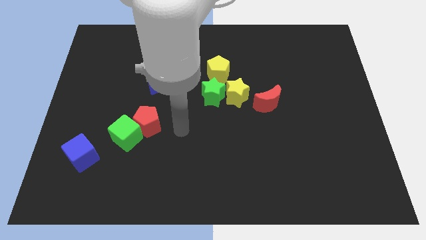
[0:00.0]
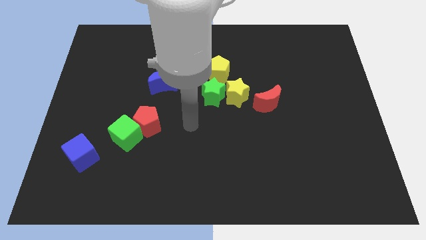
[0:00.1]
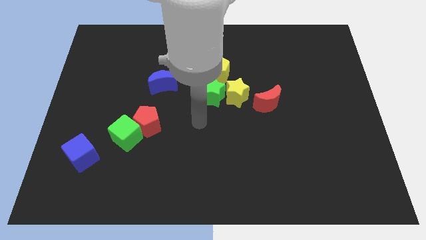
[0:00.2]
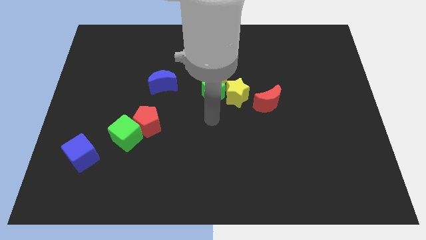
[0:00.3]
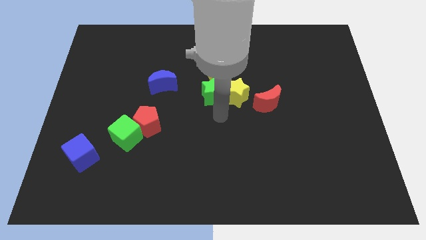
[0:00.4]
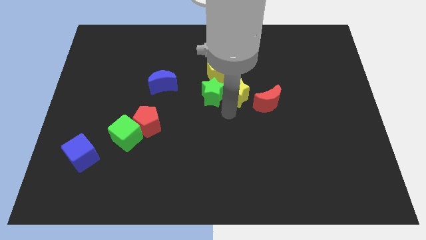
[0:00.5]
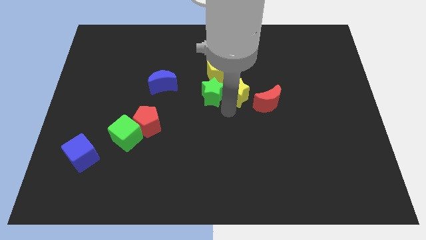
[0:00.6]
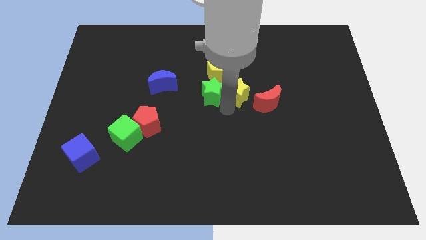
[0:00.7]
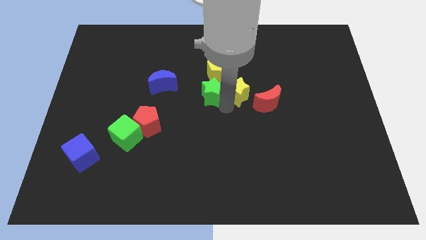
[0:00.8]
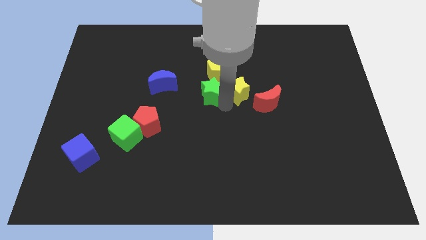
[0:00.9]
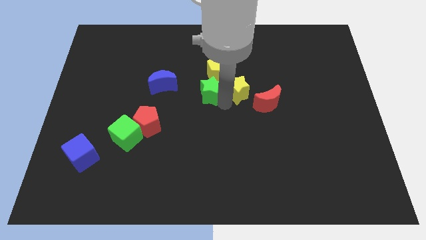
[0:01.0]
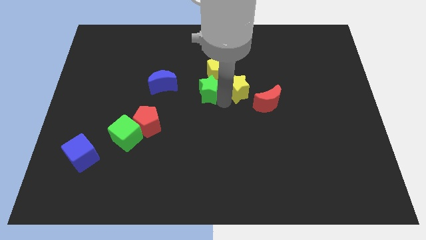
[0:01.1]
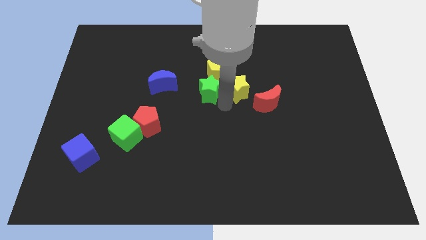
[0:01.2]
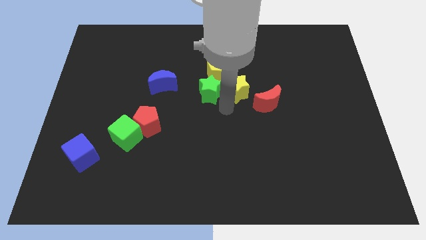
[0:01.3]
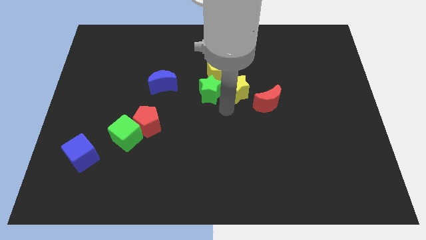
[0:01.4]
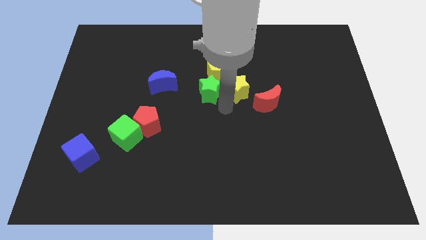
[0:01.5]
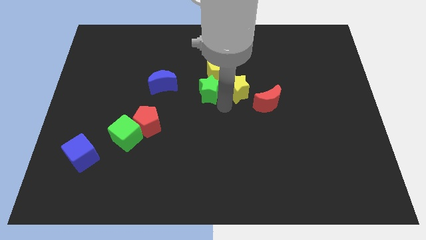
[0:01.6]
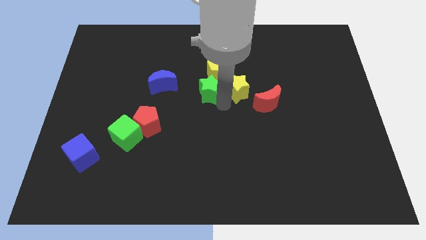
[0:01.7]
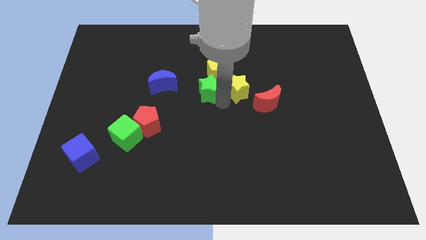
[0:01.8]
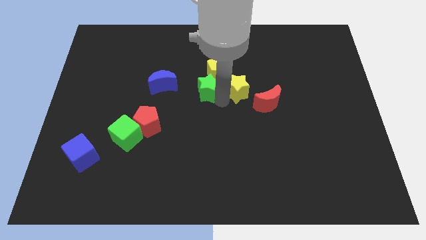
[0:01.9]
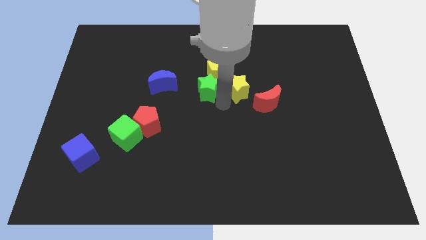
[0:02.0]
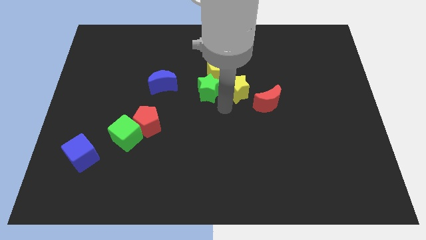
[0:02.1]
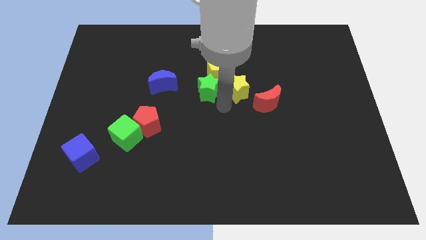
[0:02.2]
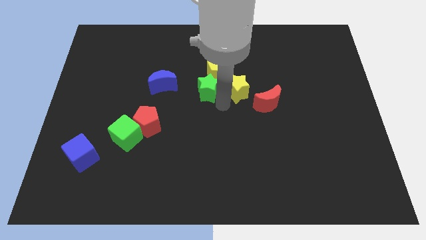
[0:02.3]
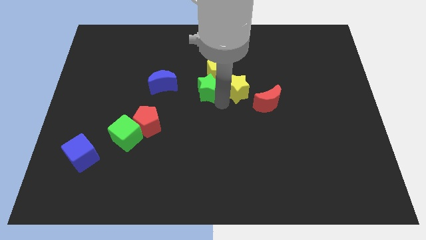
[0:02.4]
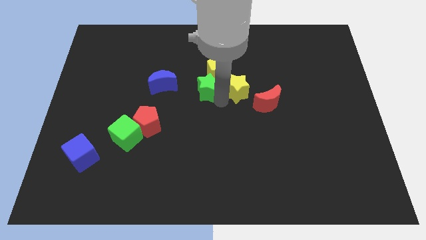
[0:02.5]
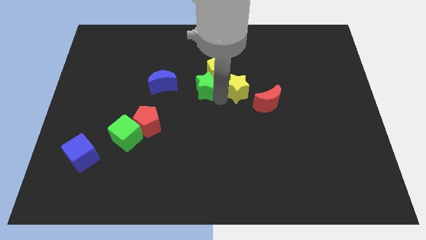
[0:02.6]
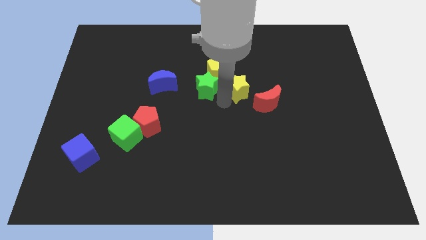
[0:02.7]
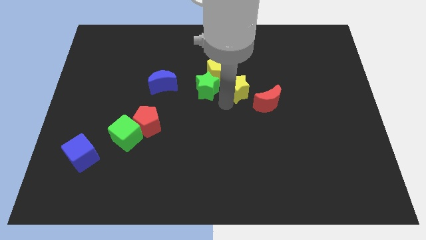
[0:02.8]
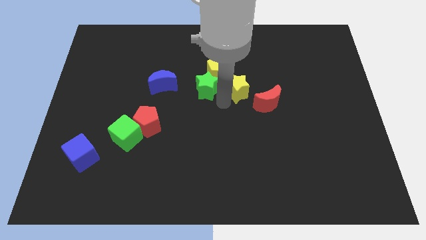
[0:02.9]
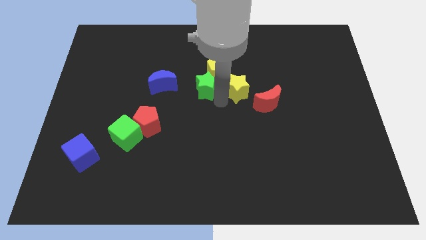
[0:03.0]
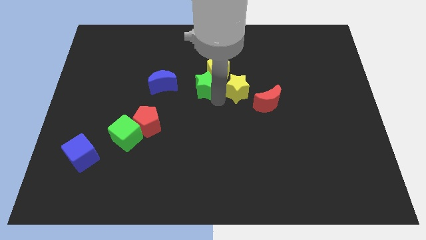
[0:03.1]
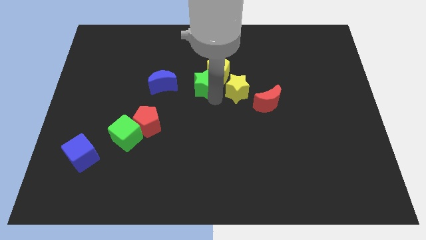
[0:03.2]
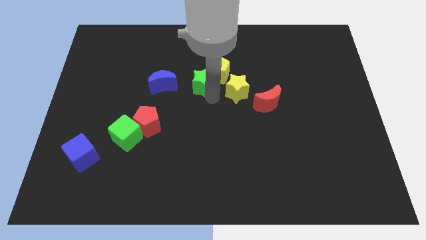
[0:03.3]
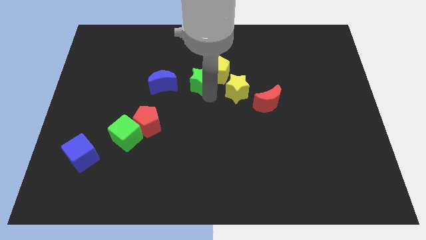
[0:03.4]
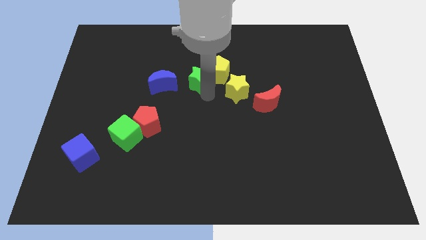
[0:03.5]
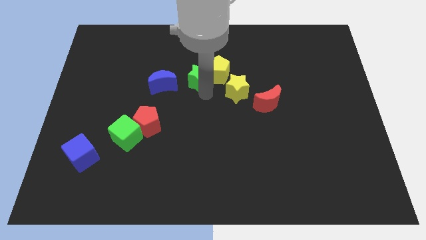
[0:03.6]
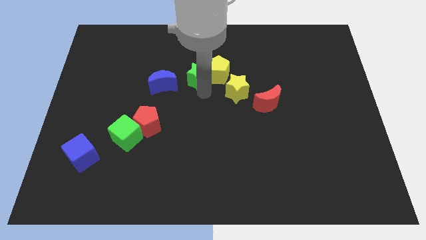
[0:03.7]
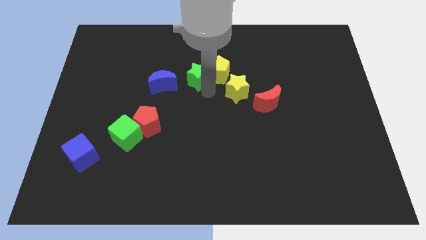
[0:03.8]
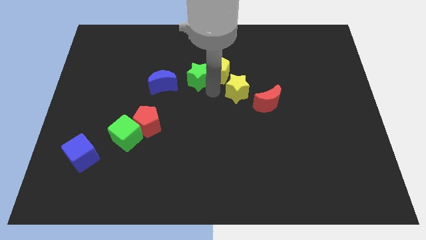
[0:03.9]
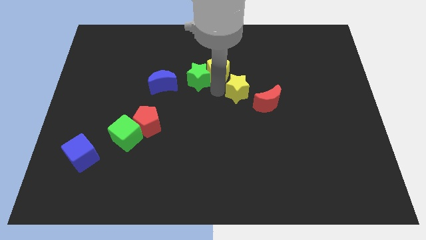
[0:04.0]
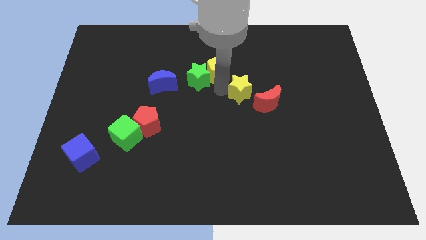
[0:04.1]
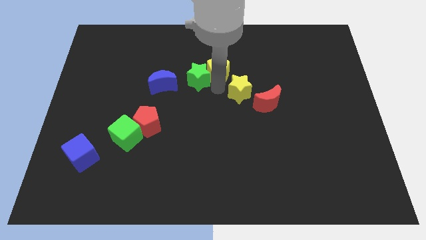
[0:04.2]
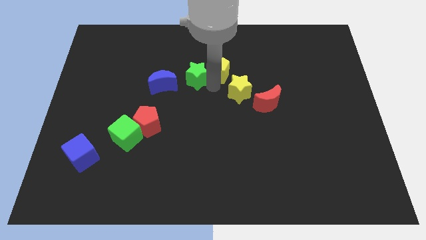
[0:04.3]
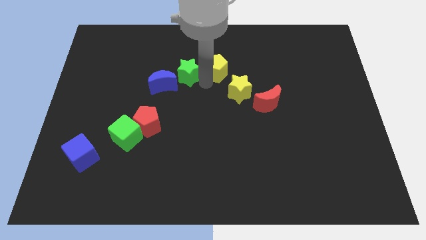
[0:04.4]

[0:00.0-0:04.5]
slightly push the green star upwards and then to the left

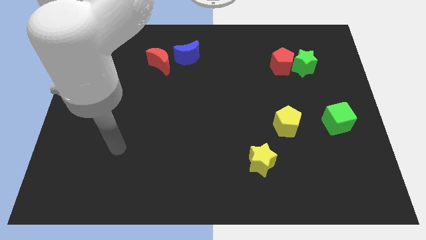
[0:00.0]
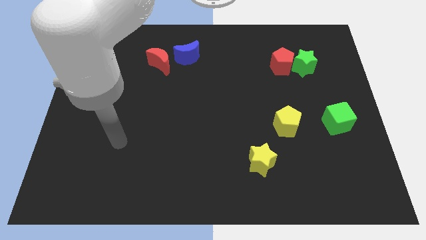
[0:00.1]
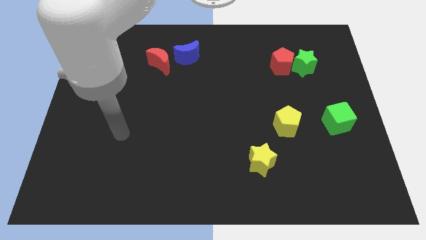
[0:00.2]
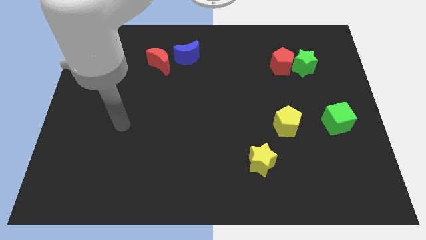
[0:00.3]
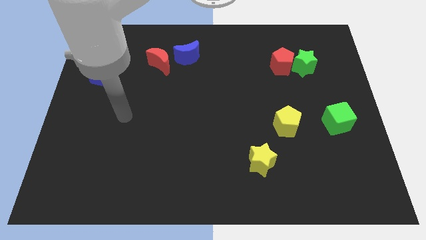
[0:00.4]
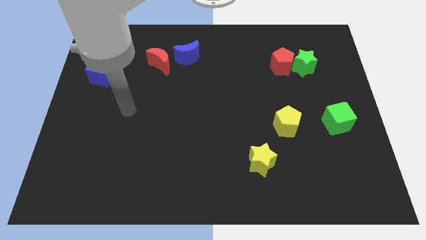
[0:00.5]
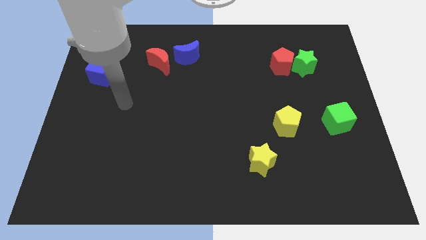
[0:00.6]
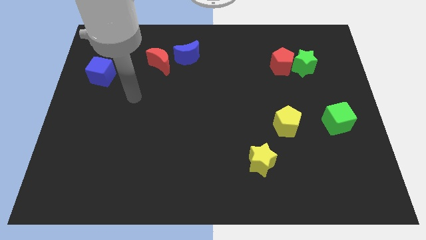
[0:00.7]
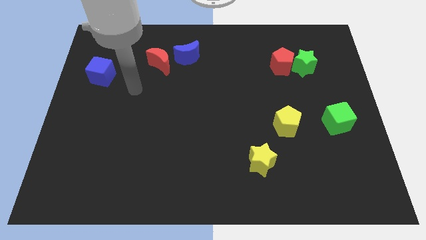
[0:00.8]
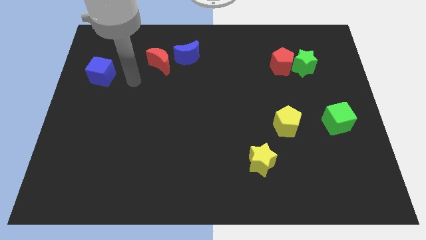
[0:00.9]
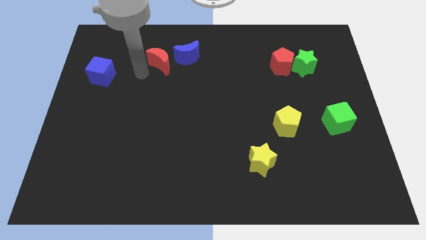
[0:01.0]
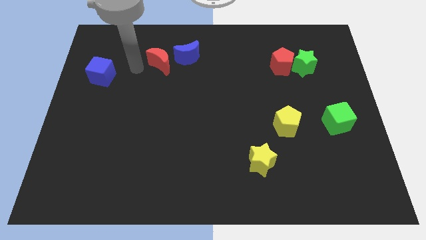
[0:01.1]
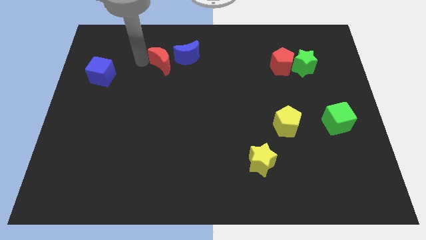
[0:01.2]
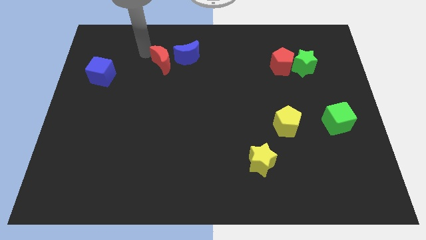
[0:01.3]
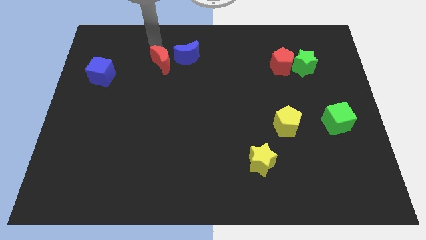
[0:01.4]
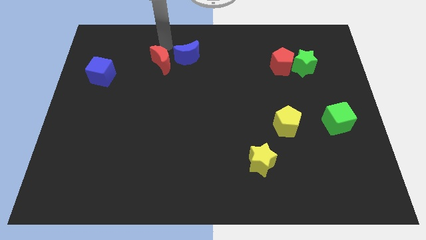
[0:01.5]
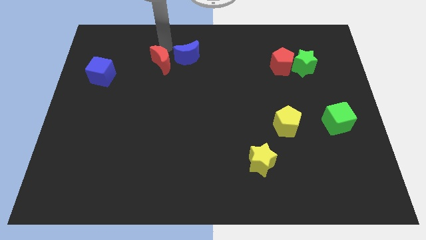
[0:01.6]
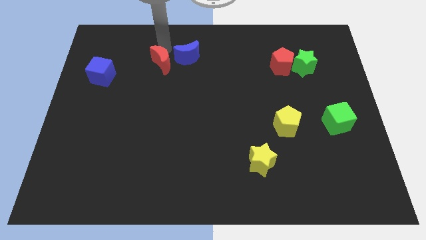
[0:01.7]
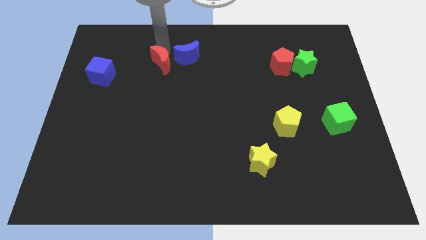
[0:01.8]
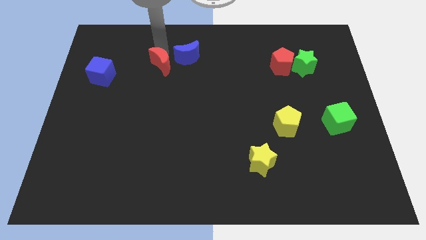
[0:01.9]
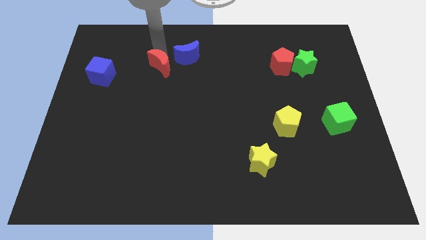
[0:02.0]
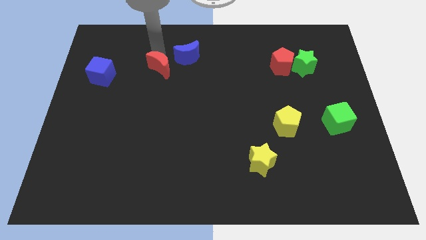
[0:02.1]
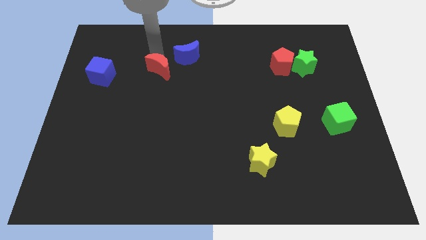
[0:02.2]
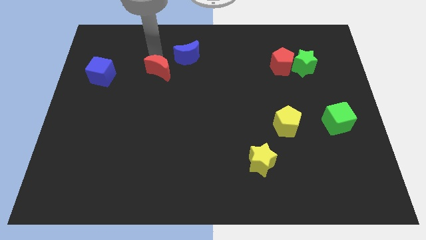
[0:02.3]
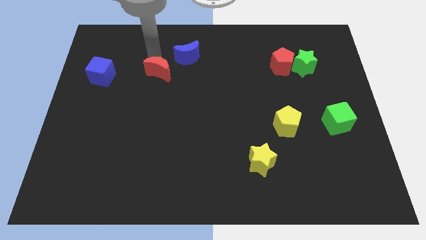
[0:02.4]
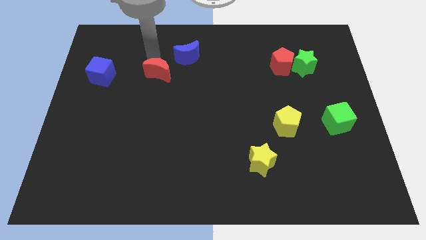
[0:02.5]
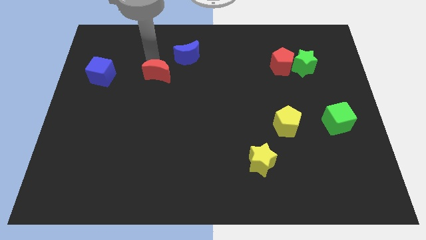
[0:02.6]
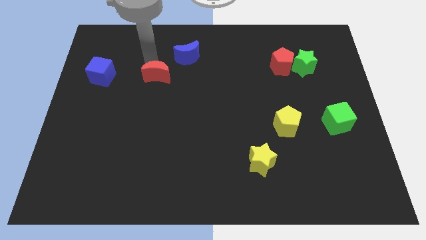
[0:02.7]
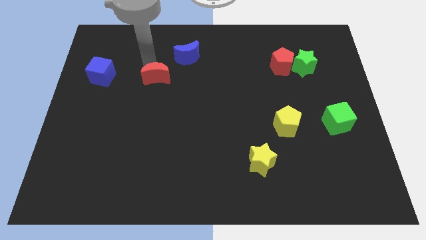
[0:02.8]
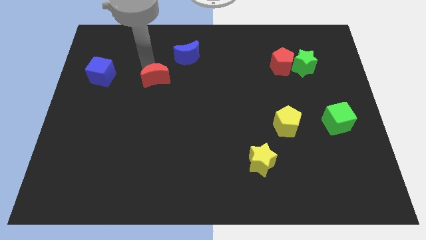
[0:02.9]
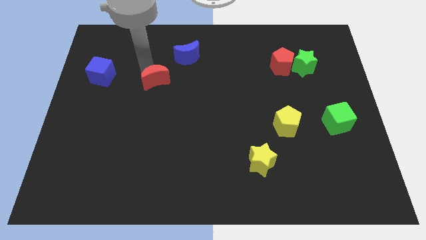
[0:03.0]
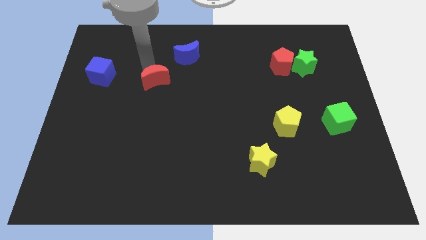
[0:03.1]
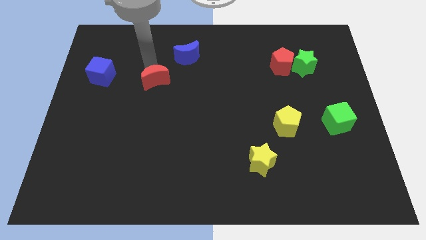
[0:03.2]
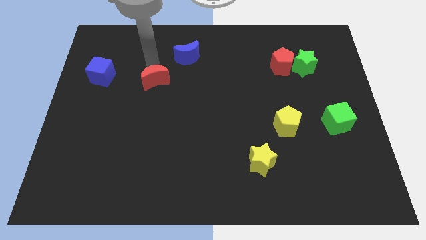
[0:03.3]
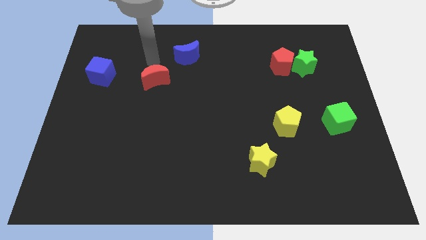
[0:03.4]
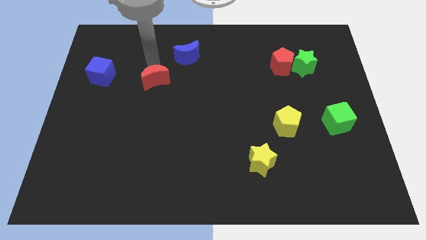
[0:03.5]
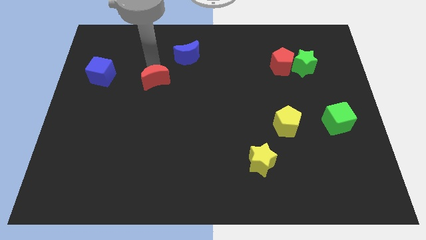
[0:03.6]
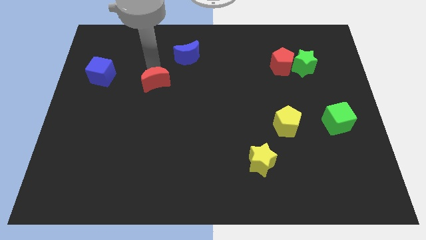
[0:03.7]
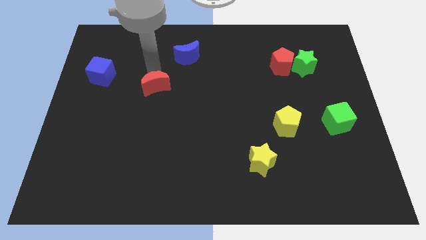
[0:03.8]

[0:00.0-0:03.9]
slide the red moon somewhat down
